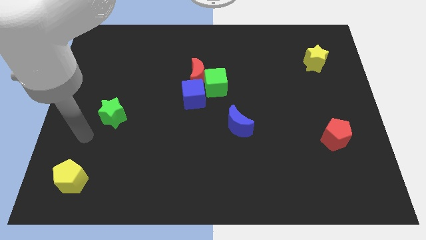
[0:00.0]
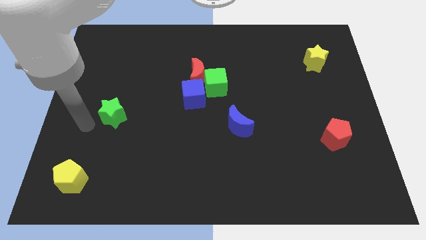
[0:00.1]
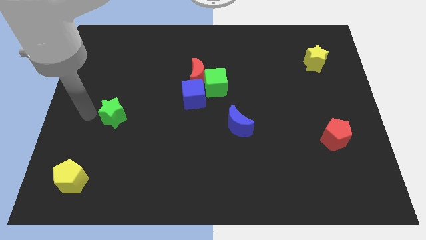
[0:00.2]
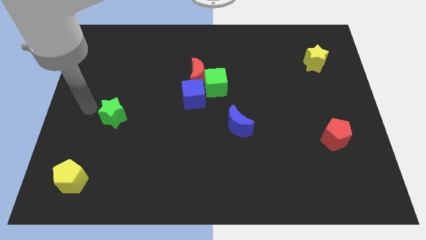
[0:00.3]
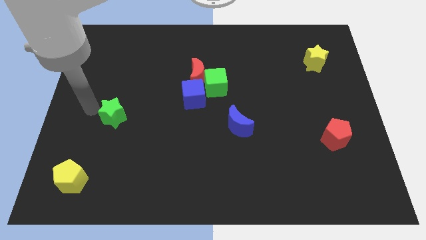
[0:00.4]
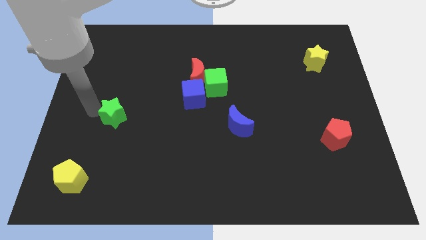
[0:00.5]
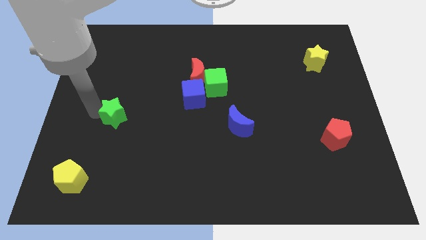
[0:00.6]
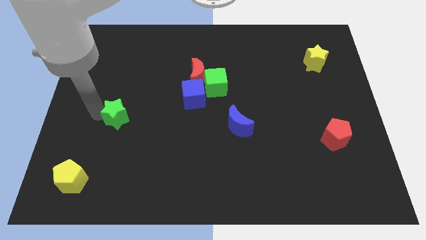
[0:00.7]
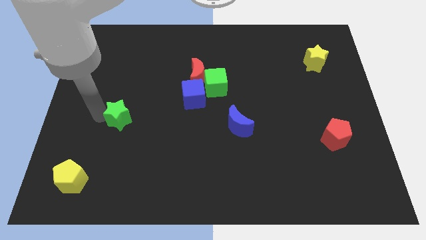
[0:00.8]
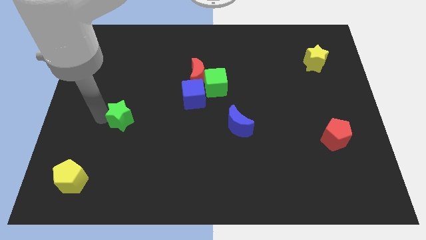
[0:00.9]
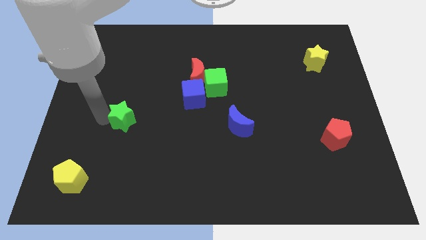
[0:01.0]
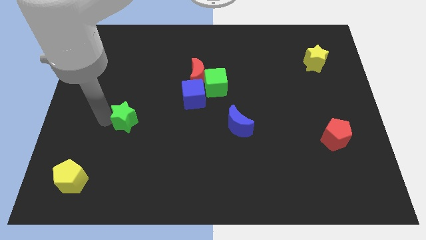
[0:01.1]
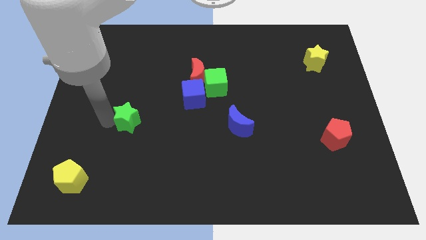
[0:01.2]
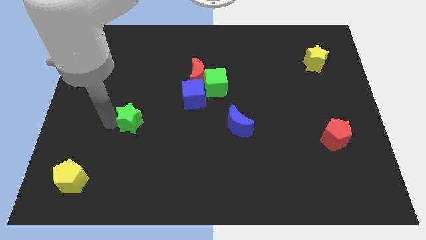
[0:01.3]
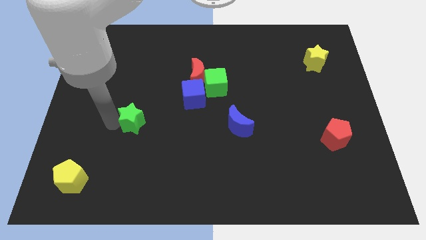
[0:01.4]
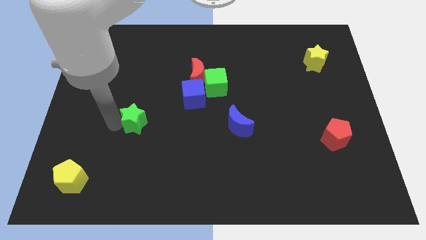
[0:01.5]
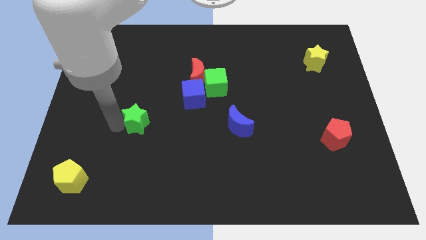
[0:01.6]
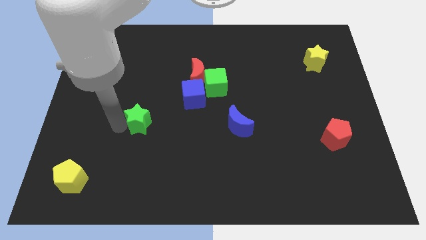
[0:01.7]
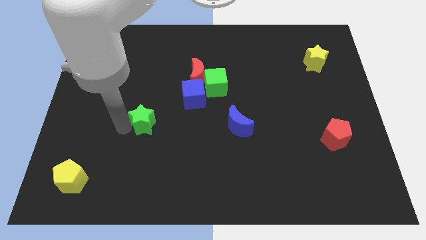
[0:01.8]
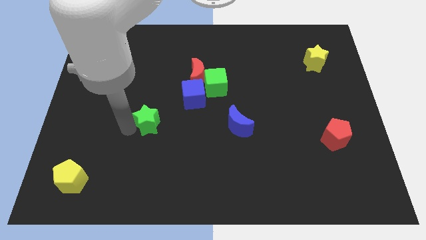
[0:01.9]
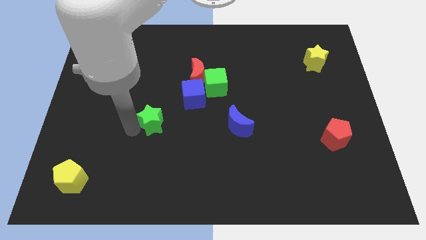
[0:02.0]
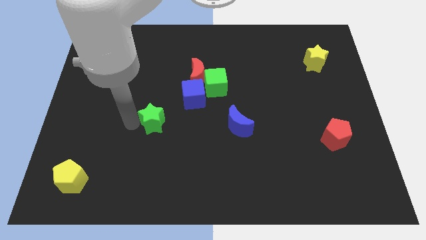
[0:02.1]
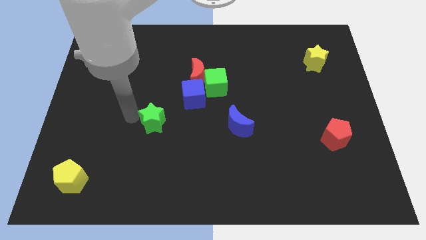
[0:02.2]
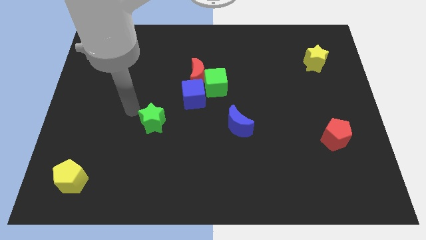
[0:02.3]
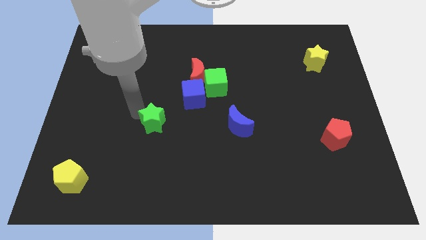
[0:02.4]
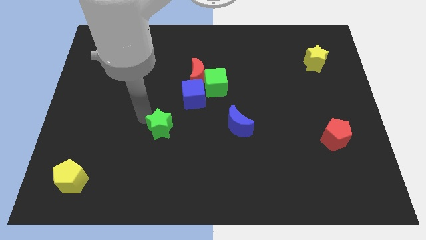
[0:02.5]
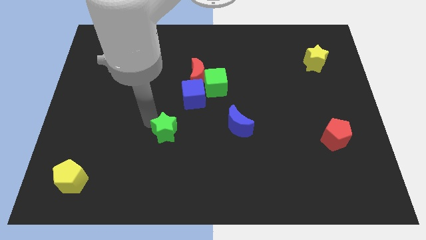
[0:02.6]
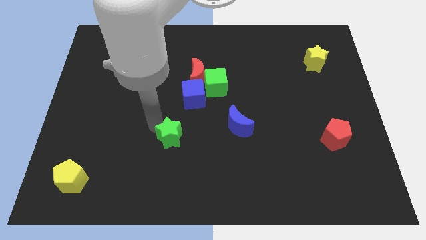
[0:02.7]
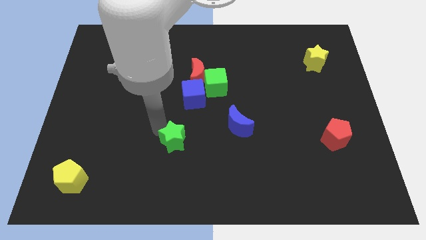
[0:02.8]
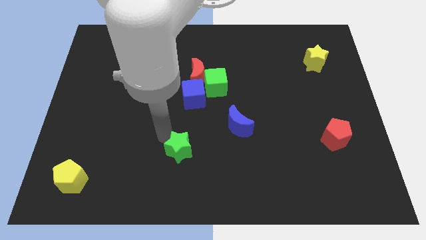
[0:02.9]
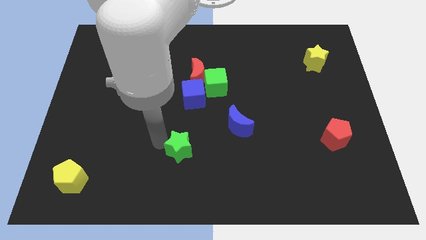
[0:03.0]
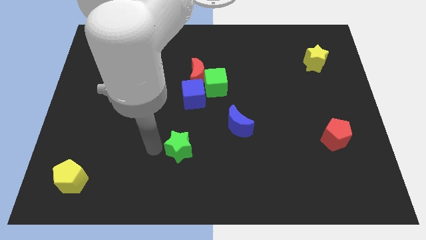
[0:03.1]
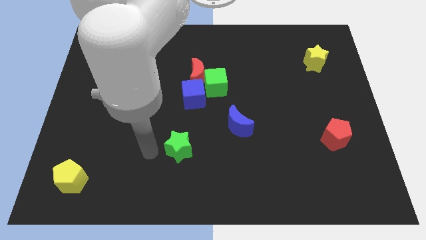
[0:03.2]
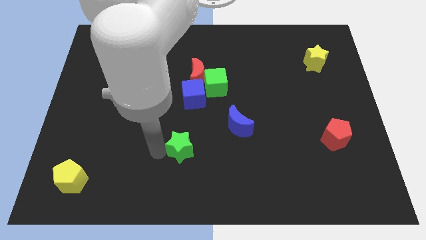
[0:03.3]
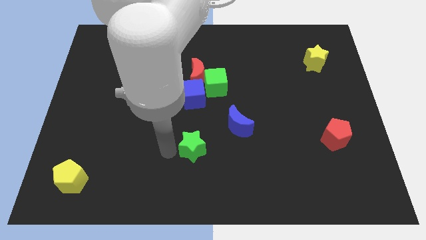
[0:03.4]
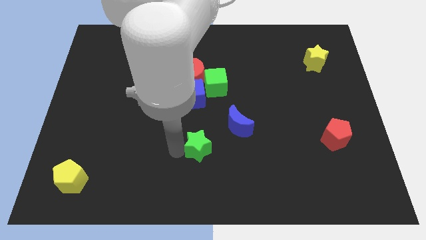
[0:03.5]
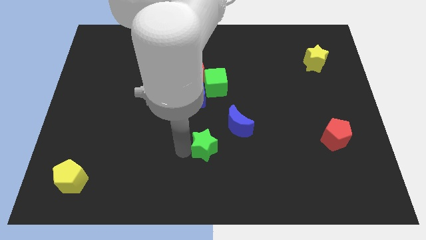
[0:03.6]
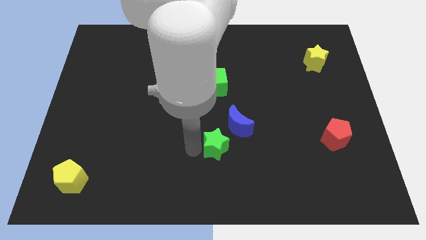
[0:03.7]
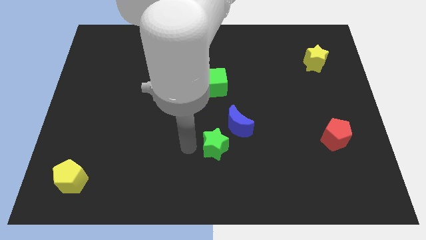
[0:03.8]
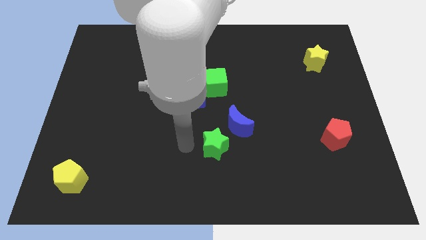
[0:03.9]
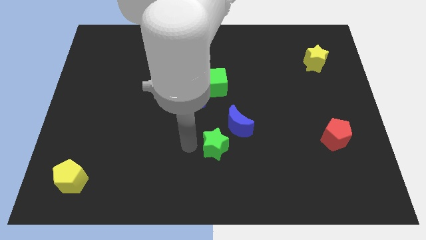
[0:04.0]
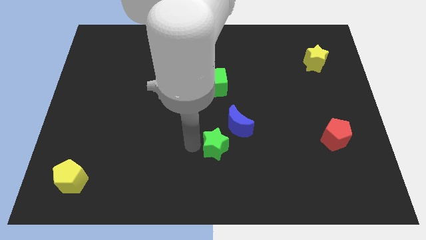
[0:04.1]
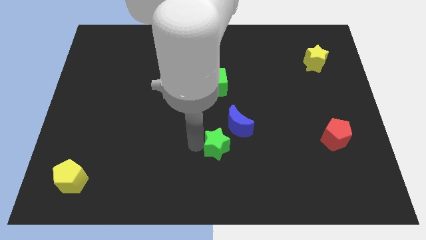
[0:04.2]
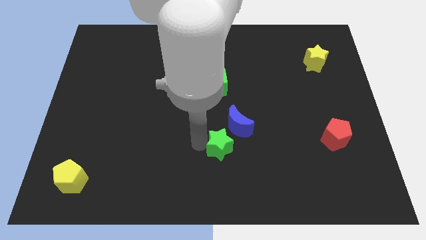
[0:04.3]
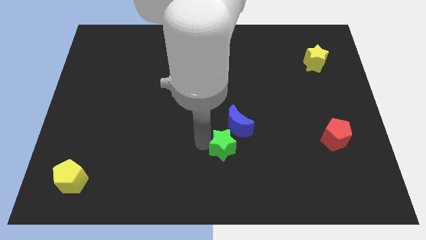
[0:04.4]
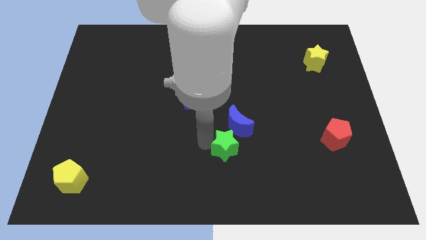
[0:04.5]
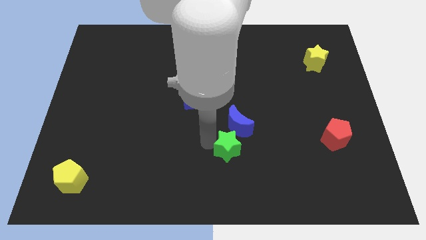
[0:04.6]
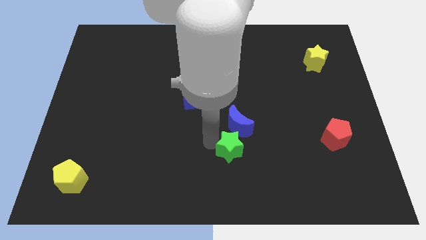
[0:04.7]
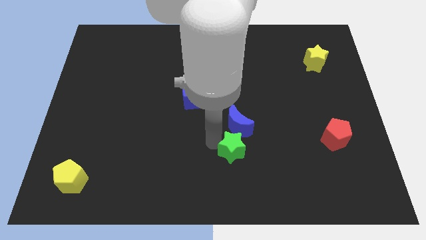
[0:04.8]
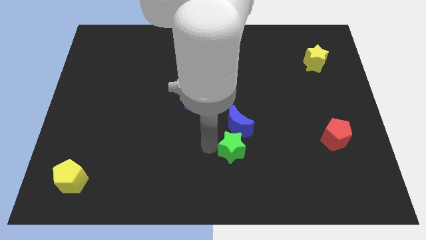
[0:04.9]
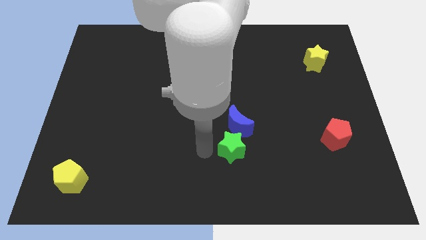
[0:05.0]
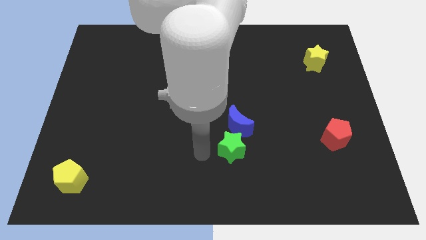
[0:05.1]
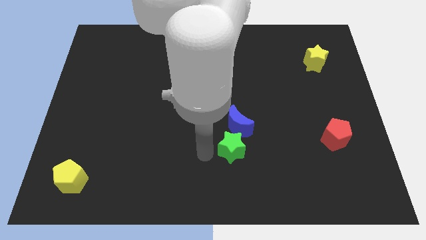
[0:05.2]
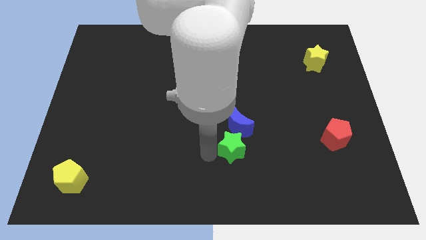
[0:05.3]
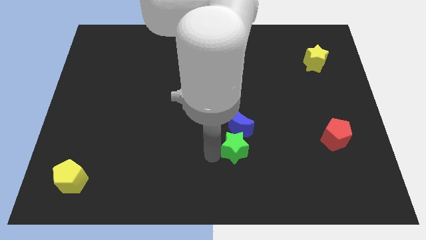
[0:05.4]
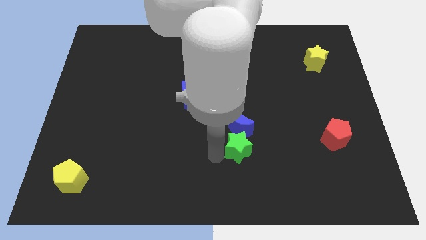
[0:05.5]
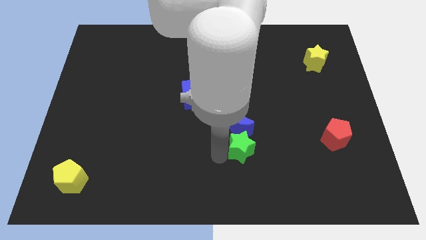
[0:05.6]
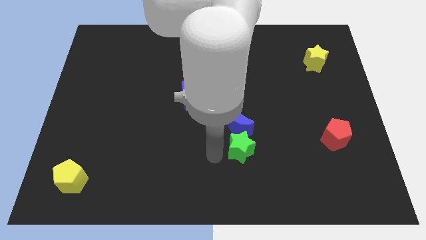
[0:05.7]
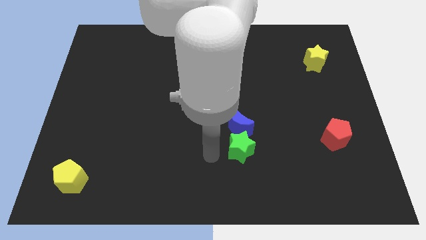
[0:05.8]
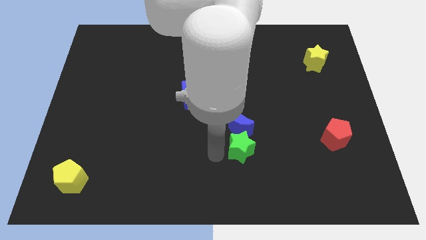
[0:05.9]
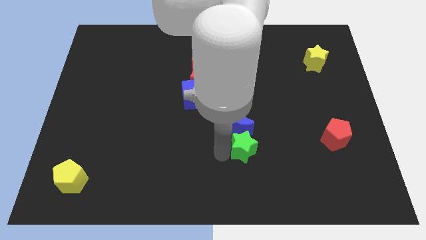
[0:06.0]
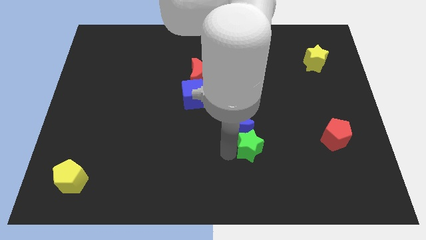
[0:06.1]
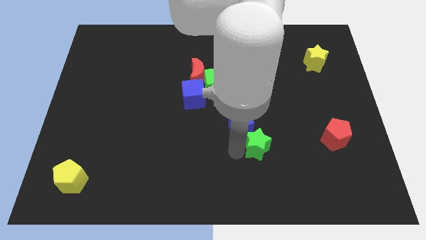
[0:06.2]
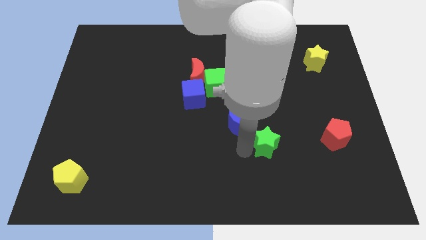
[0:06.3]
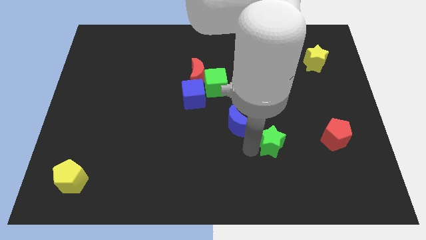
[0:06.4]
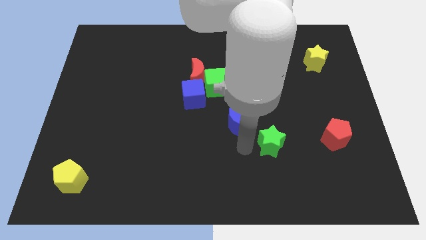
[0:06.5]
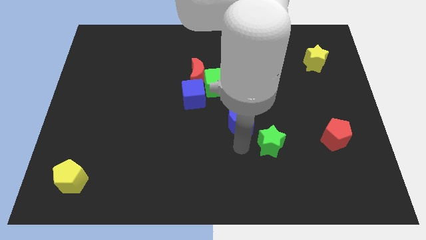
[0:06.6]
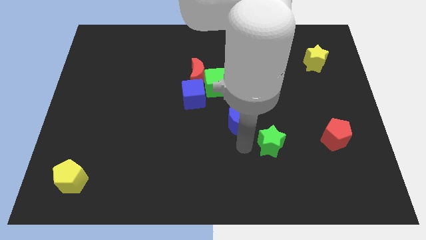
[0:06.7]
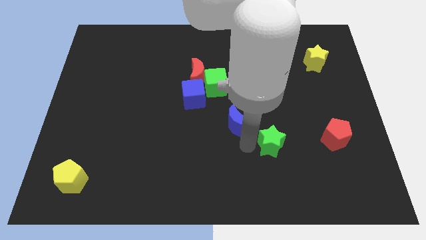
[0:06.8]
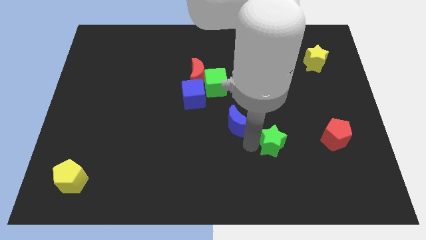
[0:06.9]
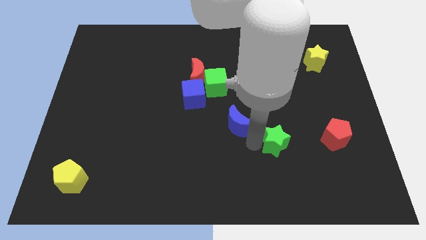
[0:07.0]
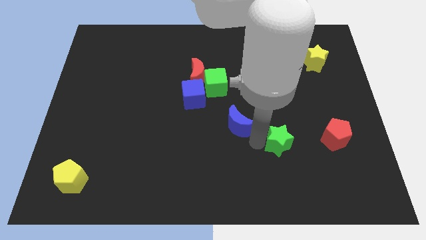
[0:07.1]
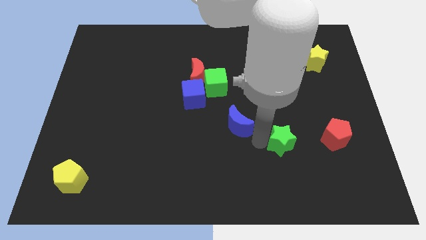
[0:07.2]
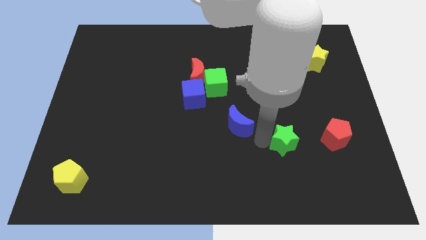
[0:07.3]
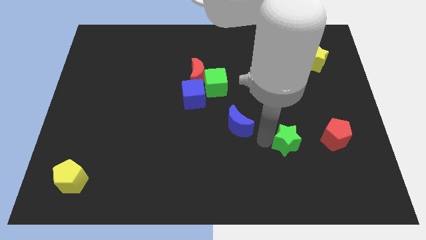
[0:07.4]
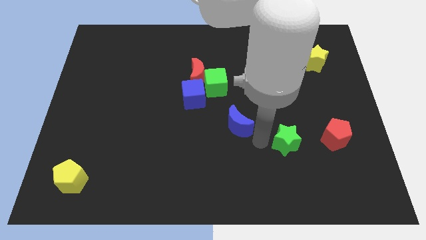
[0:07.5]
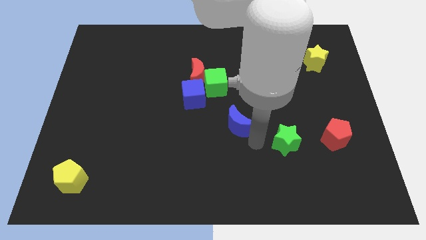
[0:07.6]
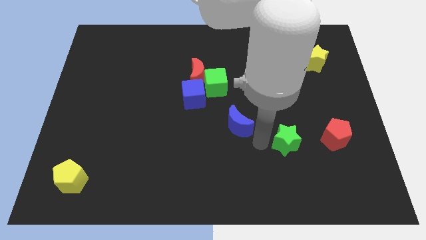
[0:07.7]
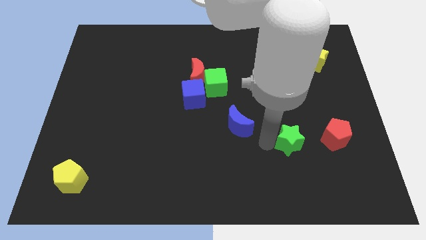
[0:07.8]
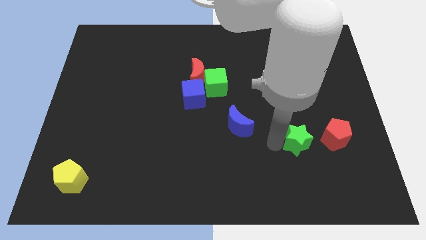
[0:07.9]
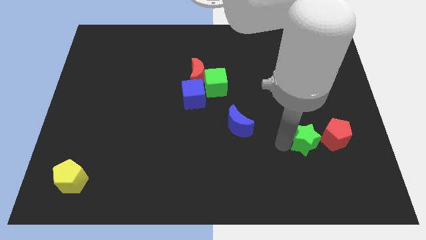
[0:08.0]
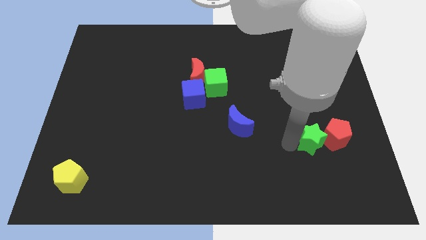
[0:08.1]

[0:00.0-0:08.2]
move the green star next to the red pentagon
